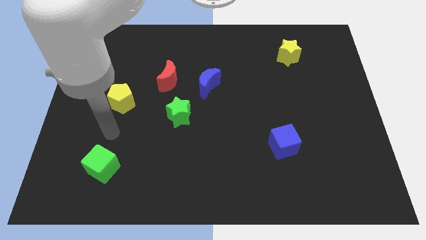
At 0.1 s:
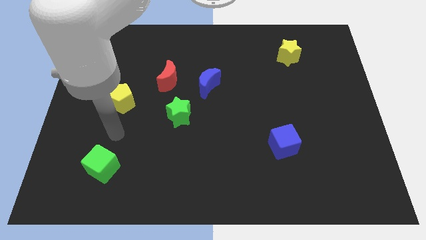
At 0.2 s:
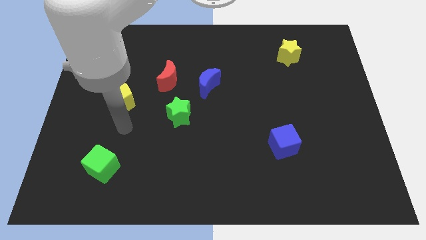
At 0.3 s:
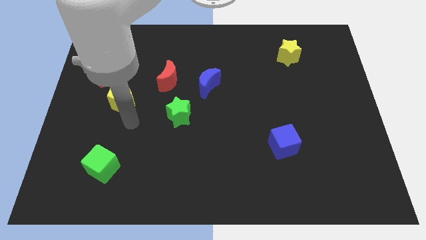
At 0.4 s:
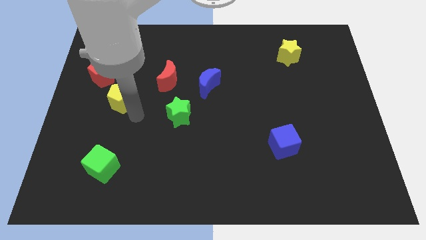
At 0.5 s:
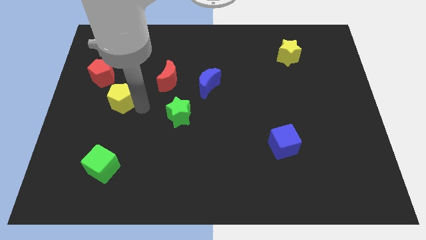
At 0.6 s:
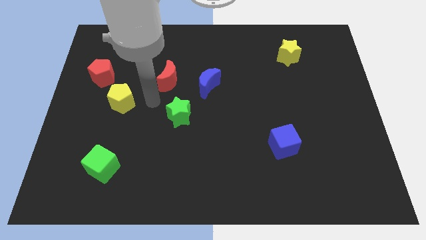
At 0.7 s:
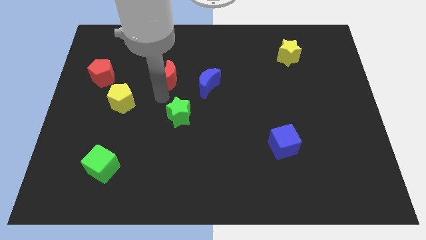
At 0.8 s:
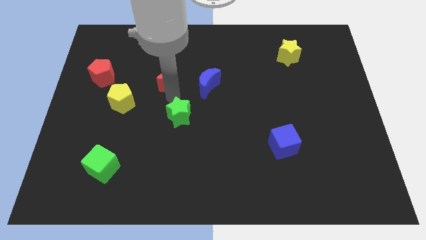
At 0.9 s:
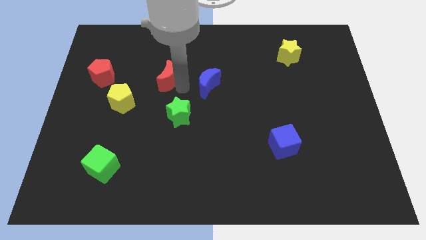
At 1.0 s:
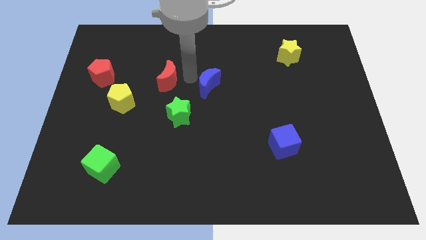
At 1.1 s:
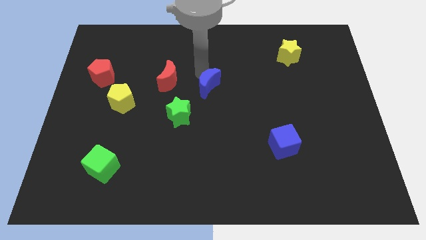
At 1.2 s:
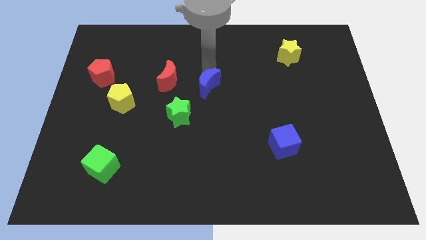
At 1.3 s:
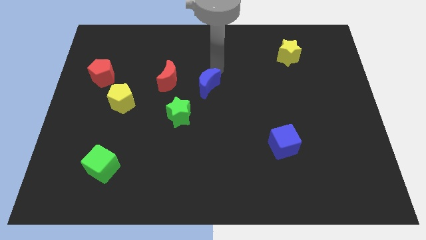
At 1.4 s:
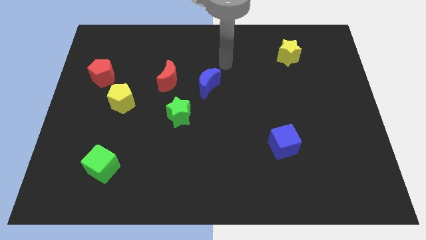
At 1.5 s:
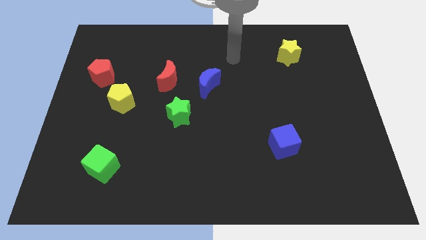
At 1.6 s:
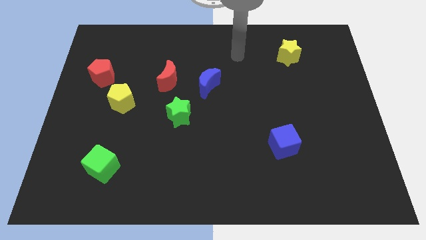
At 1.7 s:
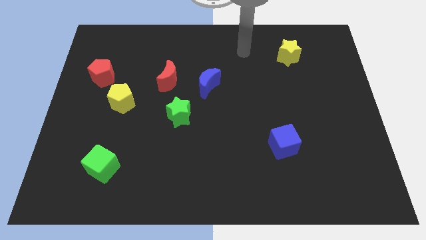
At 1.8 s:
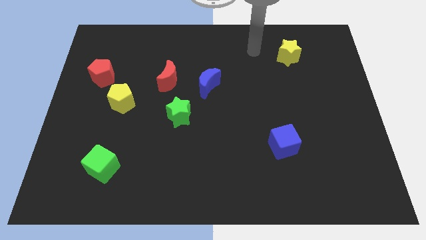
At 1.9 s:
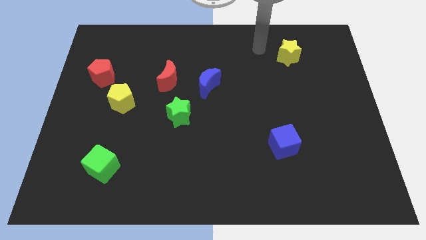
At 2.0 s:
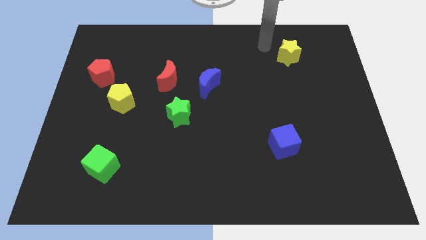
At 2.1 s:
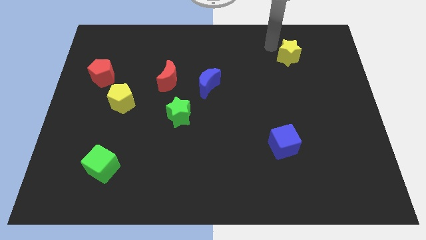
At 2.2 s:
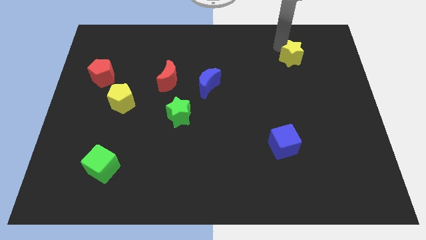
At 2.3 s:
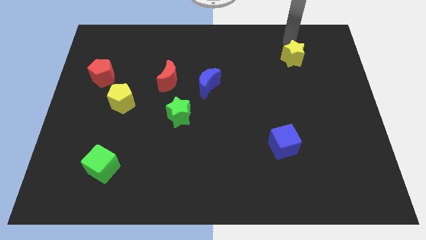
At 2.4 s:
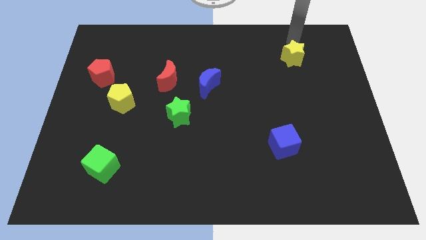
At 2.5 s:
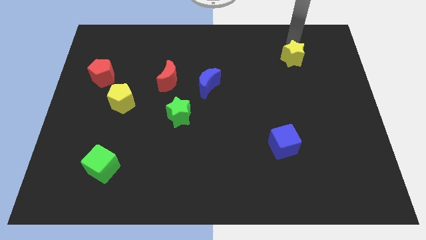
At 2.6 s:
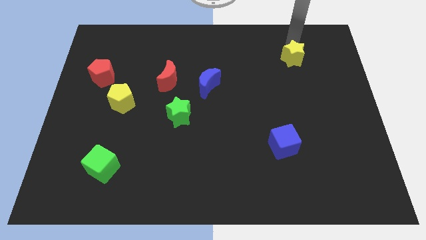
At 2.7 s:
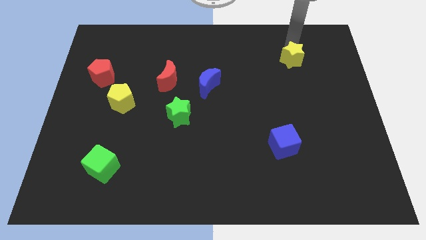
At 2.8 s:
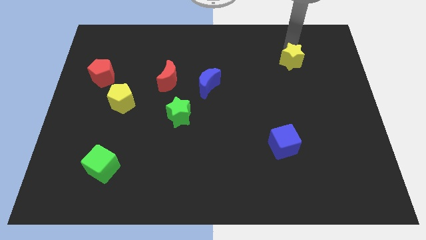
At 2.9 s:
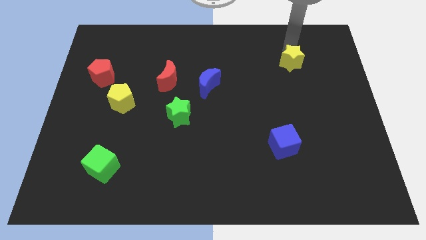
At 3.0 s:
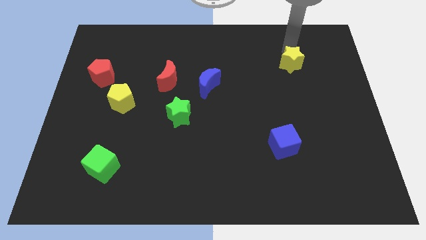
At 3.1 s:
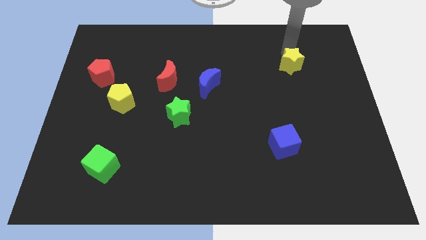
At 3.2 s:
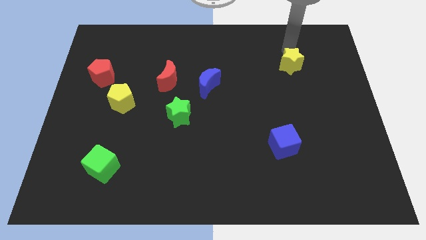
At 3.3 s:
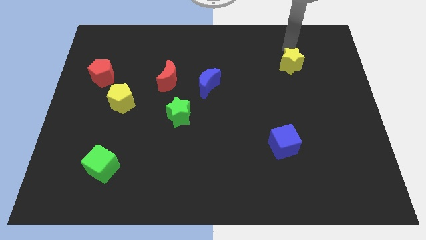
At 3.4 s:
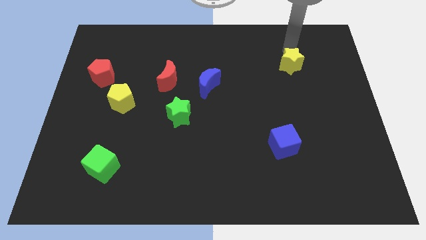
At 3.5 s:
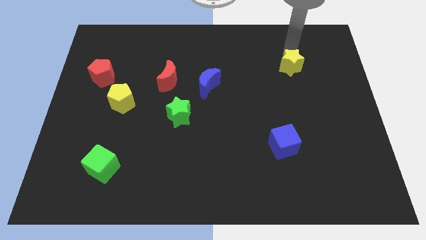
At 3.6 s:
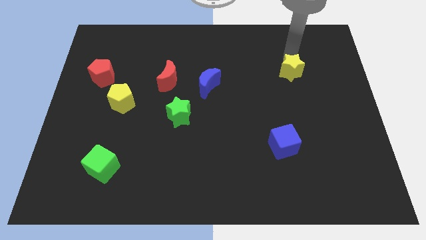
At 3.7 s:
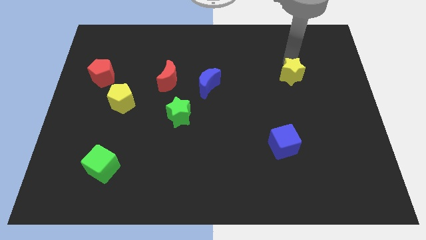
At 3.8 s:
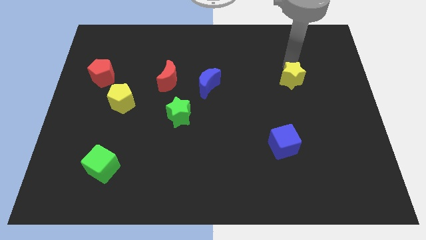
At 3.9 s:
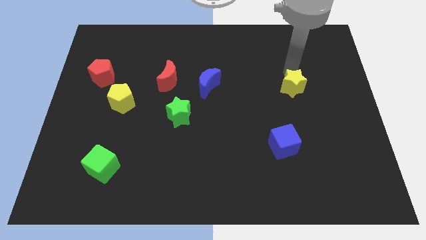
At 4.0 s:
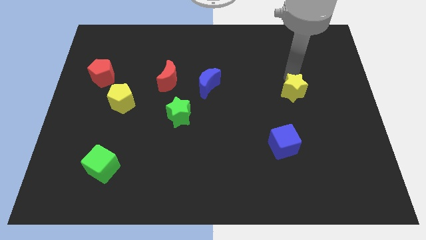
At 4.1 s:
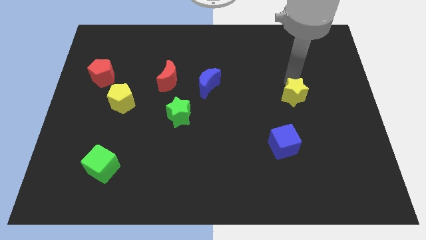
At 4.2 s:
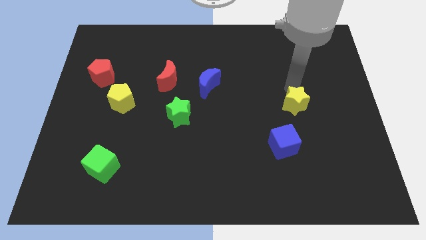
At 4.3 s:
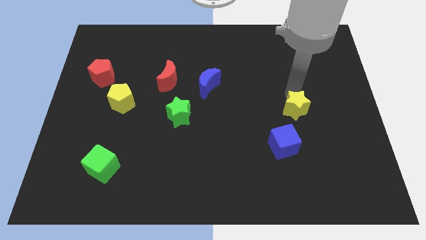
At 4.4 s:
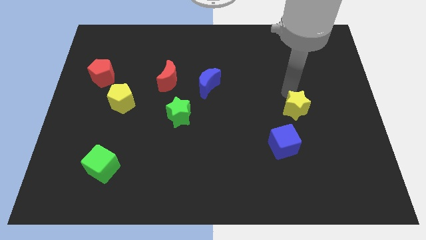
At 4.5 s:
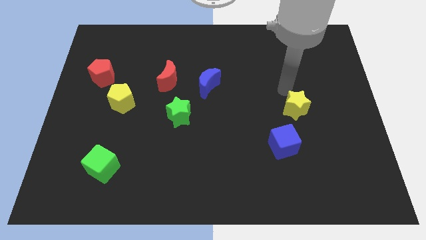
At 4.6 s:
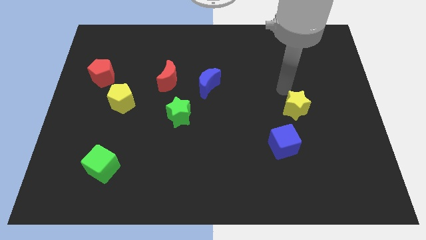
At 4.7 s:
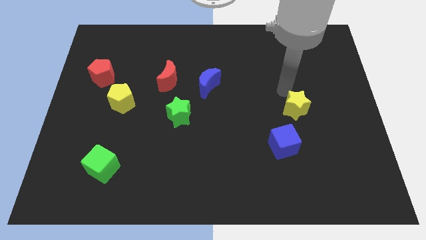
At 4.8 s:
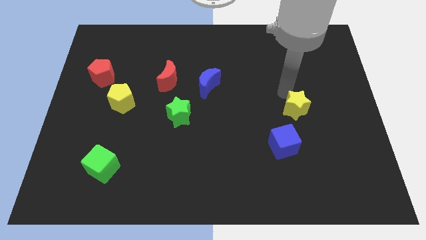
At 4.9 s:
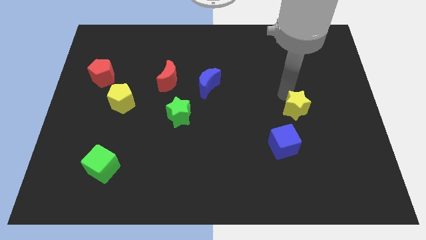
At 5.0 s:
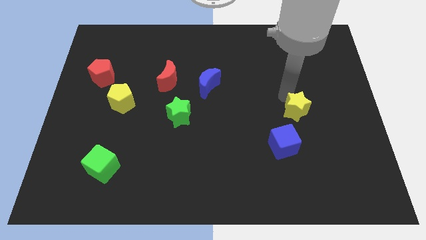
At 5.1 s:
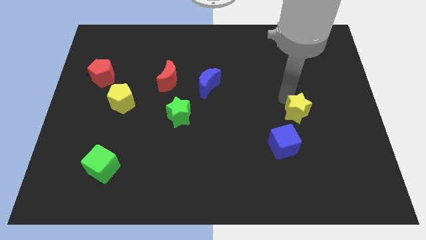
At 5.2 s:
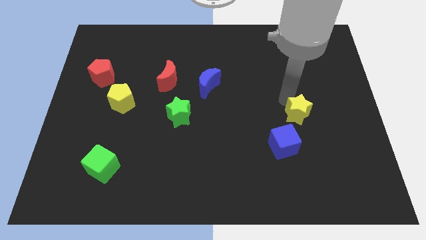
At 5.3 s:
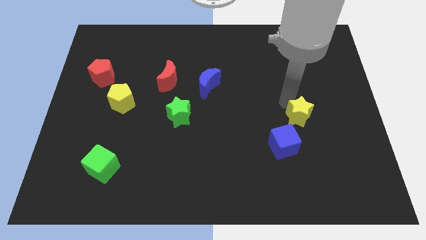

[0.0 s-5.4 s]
slide the yellow star down

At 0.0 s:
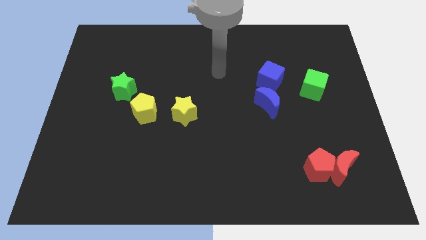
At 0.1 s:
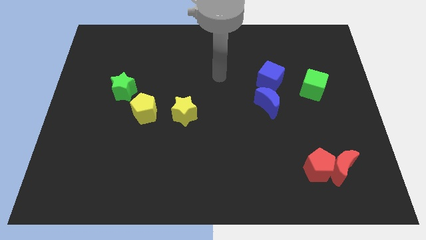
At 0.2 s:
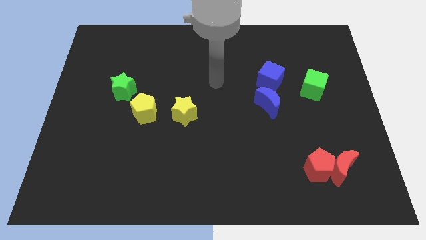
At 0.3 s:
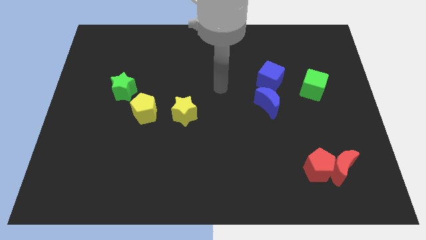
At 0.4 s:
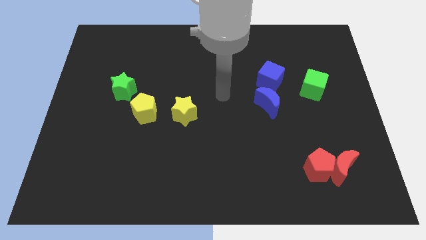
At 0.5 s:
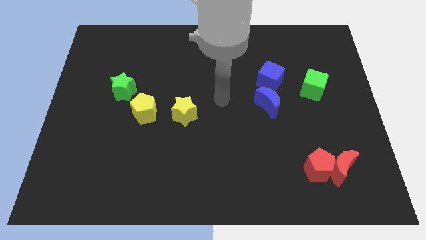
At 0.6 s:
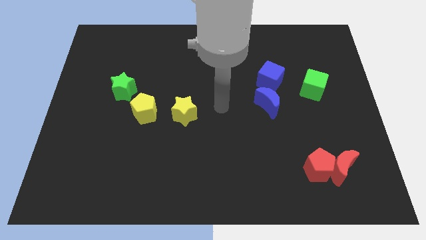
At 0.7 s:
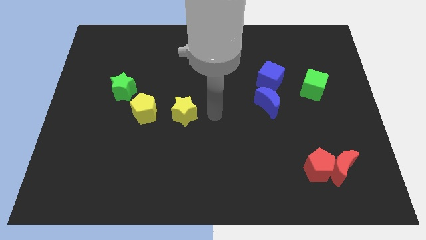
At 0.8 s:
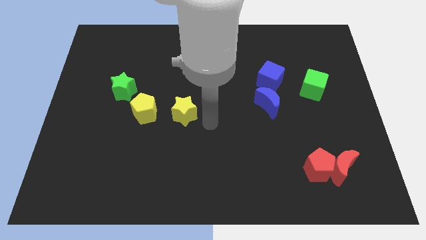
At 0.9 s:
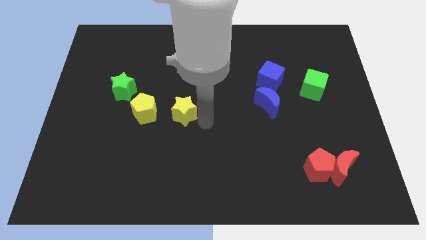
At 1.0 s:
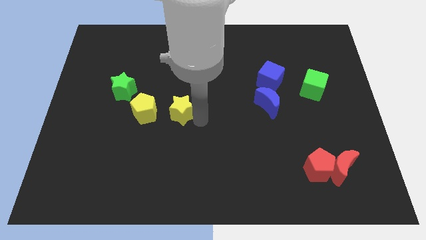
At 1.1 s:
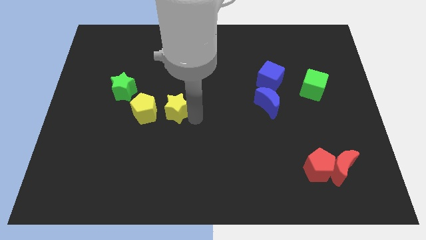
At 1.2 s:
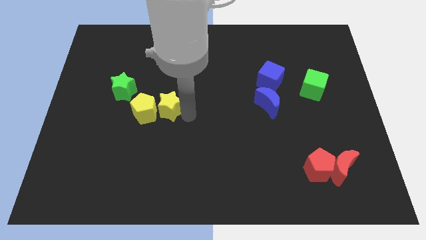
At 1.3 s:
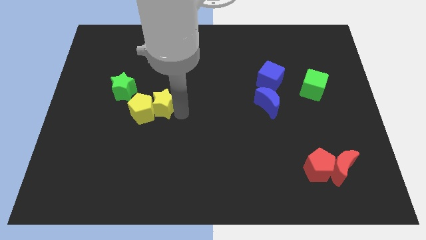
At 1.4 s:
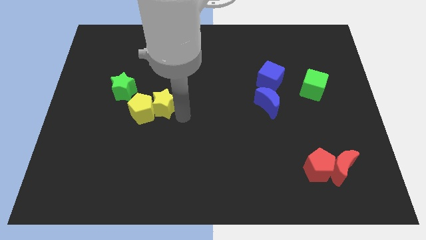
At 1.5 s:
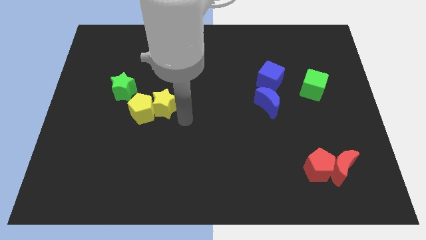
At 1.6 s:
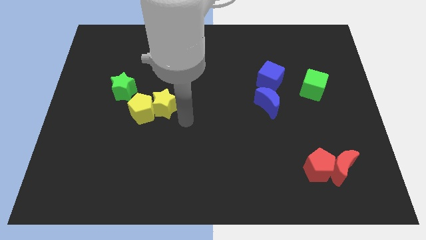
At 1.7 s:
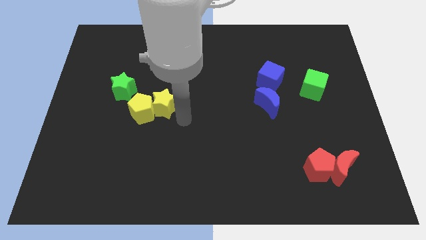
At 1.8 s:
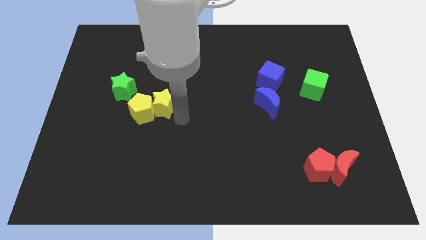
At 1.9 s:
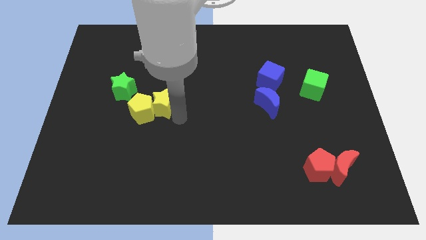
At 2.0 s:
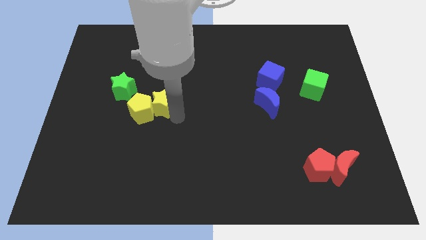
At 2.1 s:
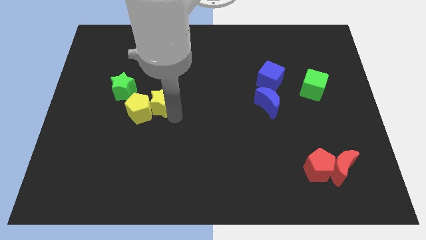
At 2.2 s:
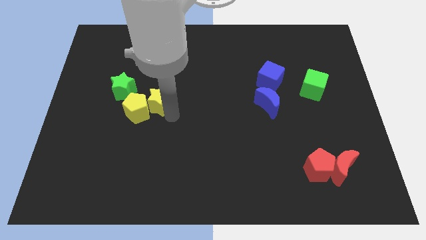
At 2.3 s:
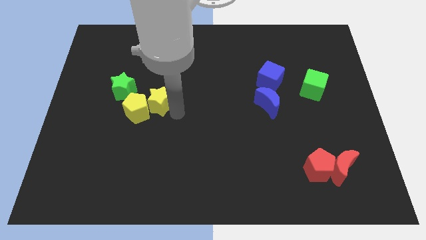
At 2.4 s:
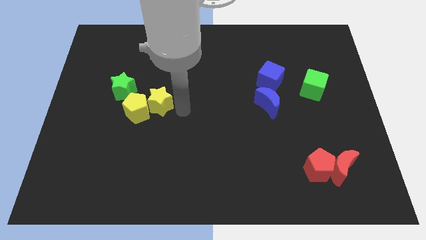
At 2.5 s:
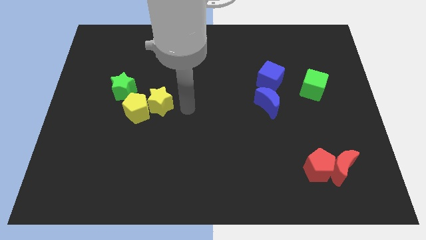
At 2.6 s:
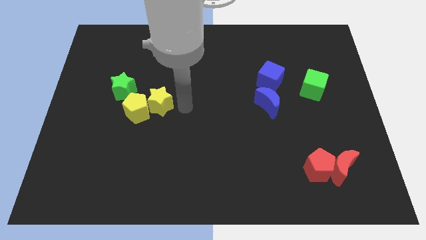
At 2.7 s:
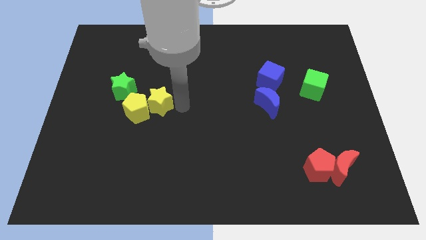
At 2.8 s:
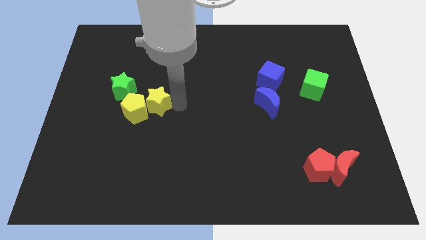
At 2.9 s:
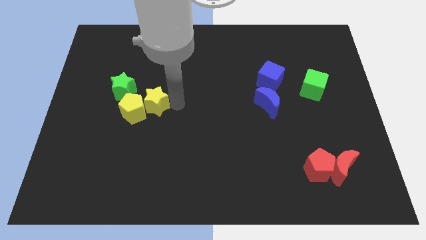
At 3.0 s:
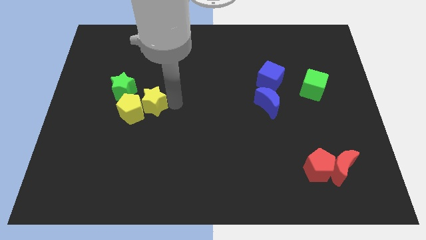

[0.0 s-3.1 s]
move the yellow star a little bit to the left
